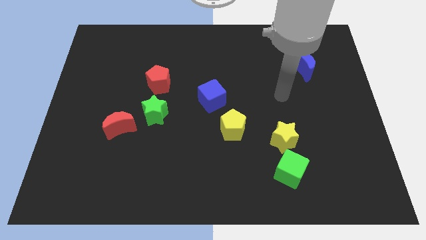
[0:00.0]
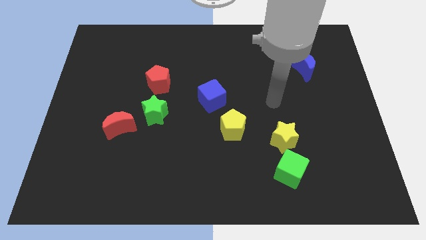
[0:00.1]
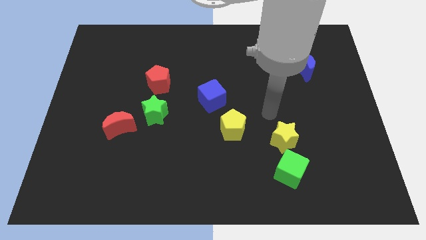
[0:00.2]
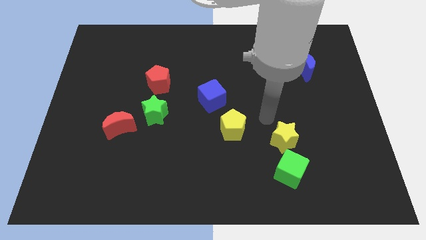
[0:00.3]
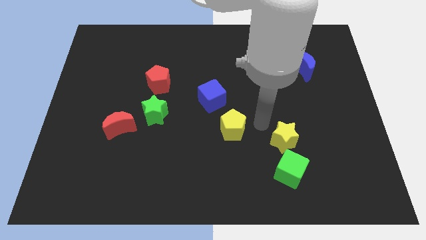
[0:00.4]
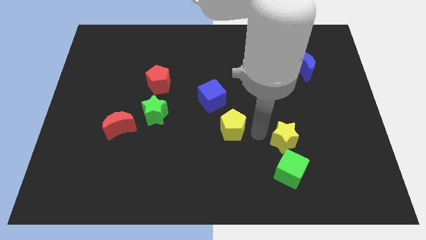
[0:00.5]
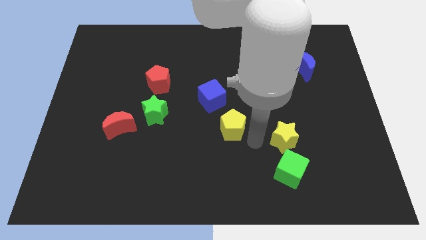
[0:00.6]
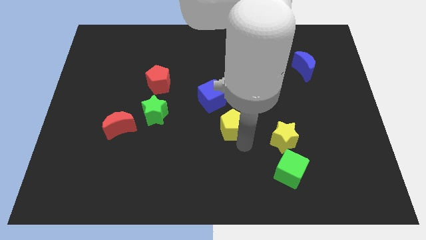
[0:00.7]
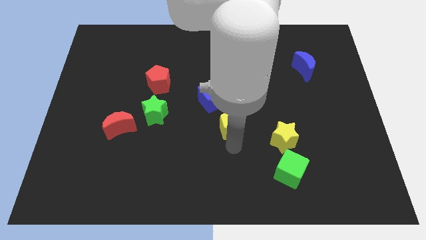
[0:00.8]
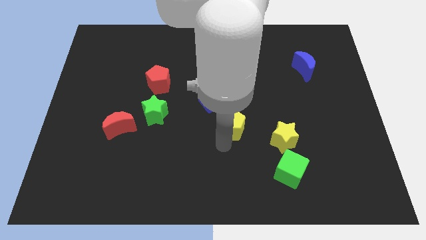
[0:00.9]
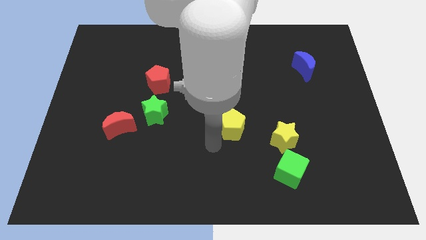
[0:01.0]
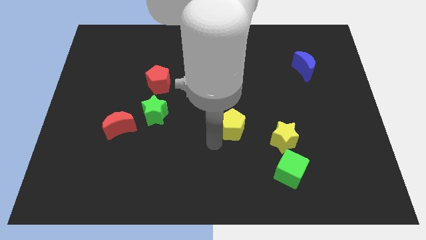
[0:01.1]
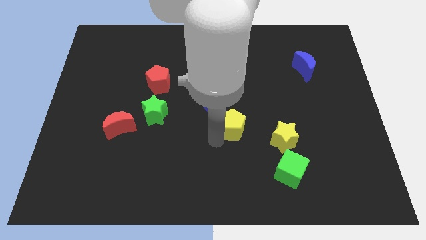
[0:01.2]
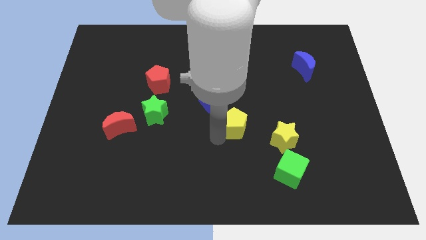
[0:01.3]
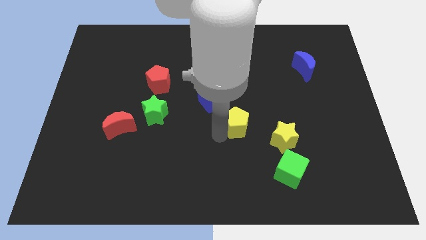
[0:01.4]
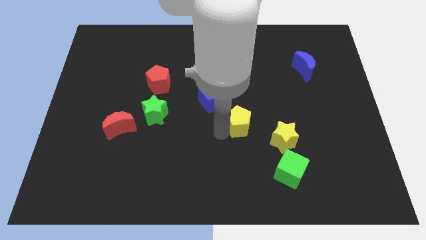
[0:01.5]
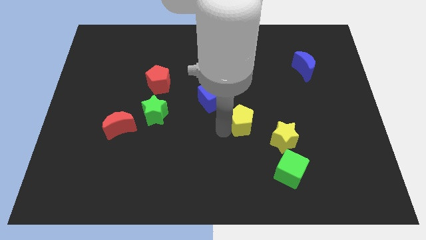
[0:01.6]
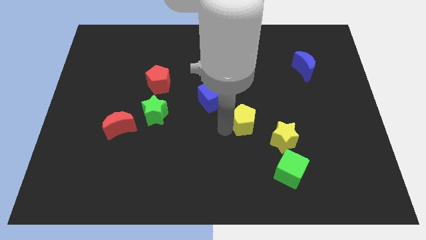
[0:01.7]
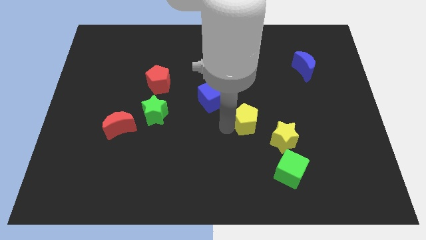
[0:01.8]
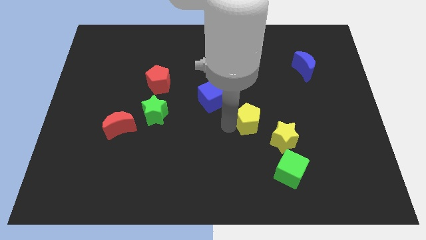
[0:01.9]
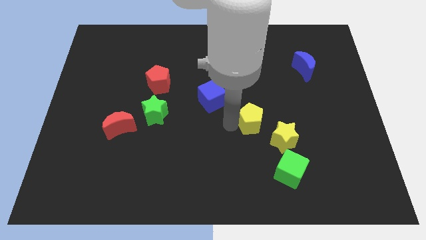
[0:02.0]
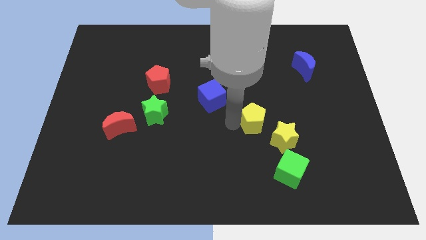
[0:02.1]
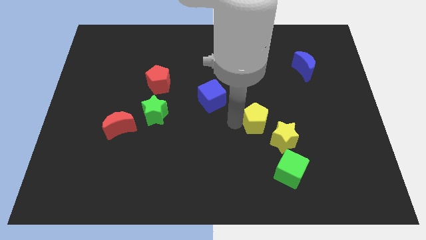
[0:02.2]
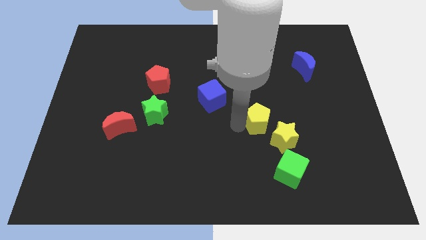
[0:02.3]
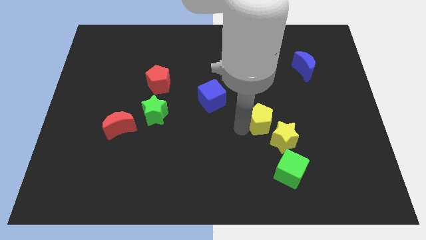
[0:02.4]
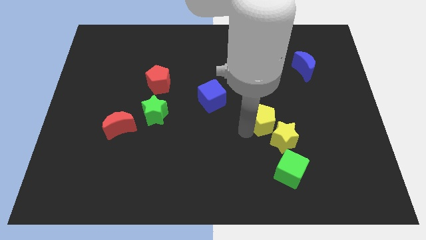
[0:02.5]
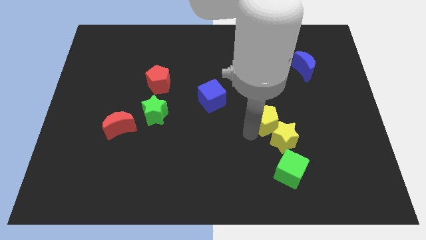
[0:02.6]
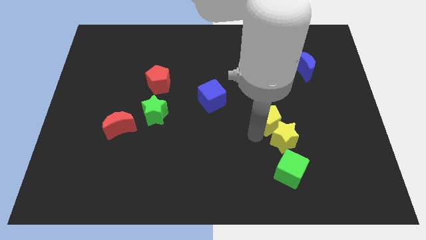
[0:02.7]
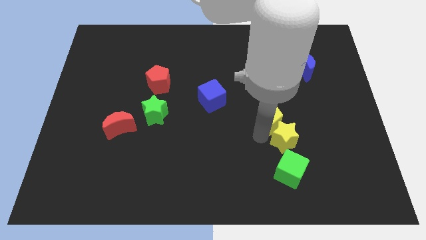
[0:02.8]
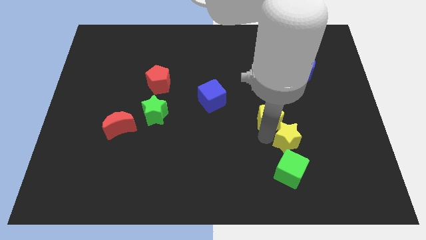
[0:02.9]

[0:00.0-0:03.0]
push the yellow pentagon diagonally up and right somewhat

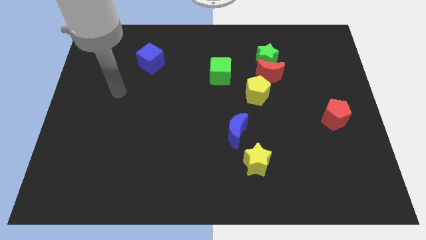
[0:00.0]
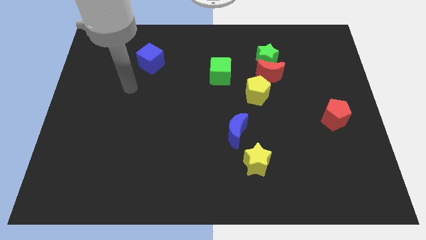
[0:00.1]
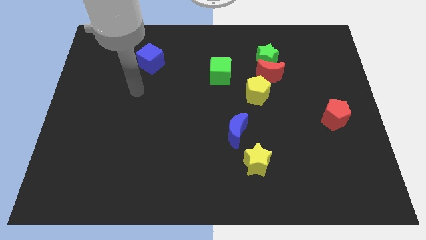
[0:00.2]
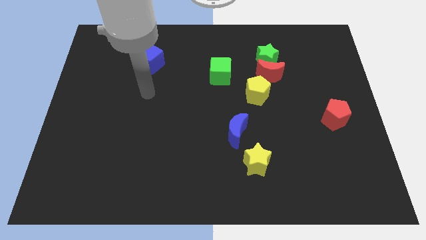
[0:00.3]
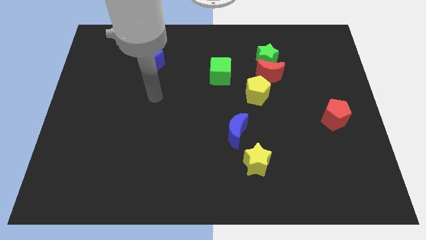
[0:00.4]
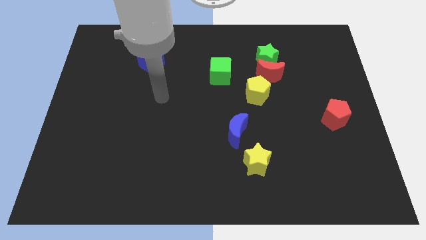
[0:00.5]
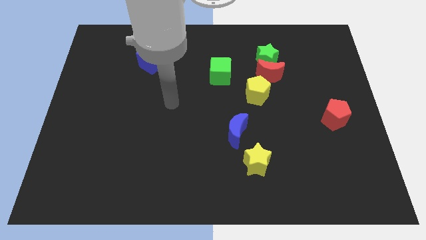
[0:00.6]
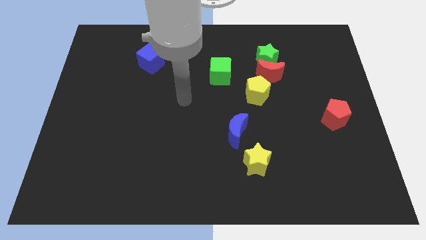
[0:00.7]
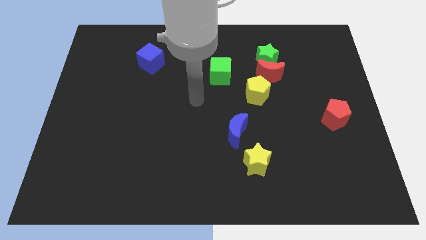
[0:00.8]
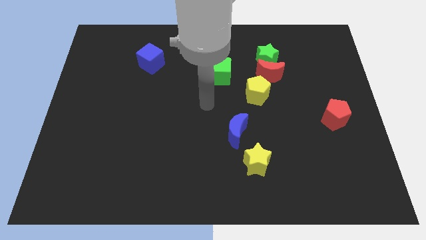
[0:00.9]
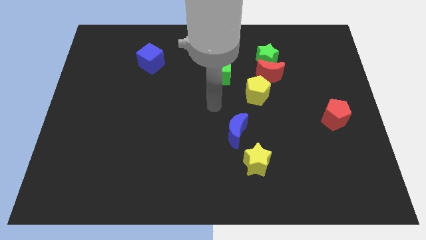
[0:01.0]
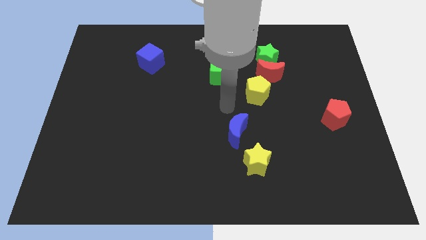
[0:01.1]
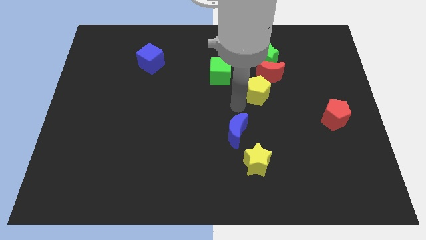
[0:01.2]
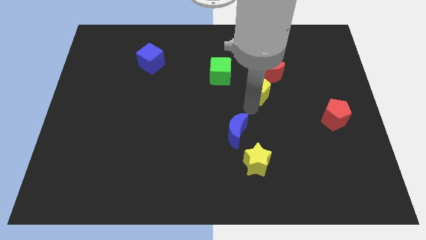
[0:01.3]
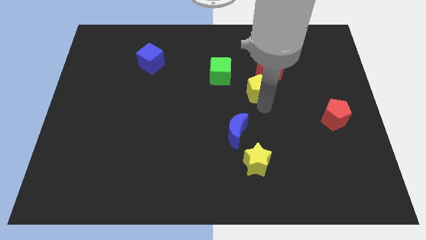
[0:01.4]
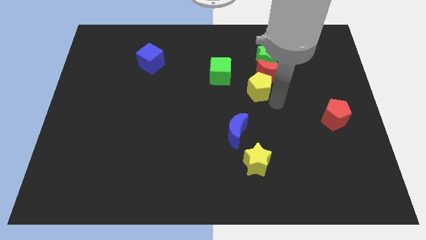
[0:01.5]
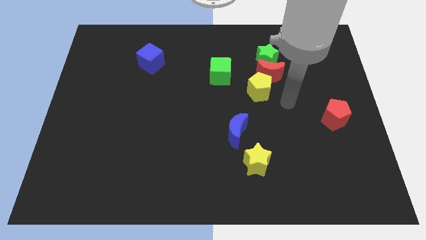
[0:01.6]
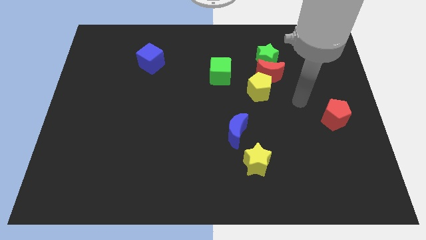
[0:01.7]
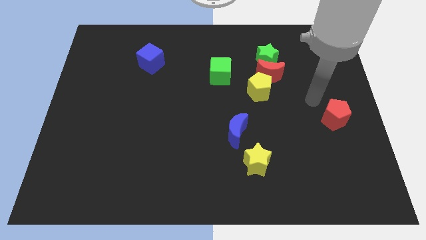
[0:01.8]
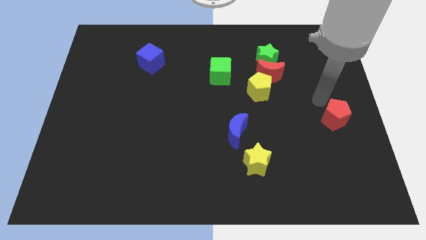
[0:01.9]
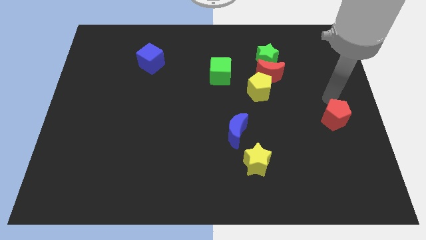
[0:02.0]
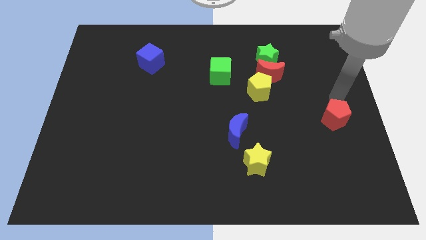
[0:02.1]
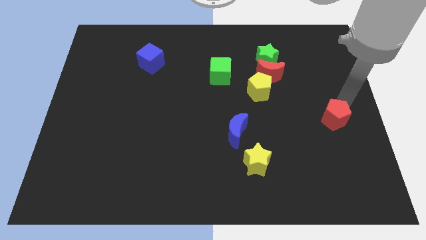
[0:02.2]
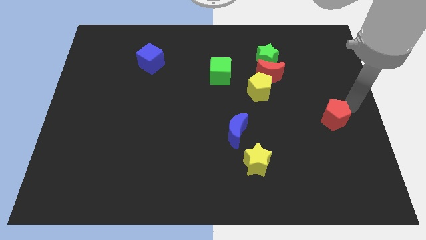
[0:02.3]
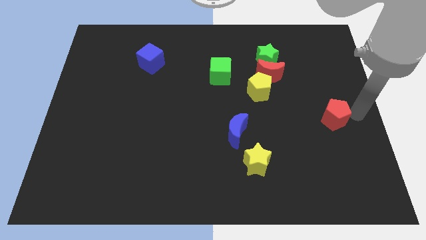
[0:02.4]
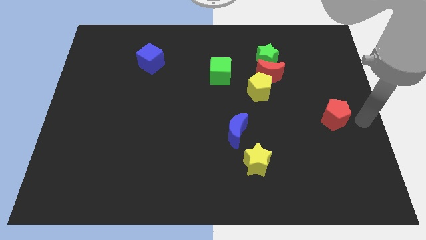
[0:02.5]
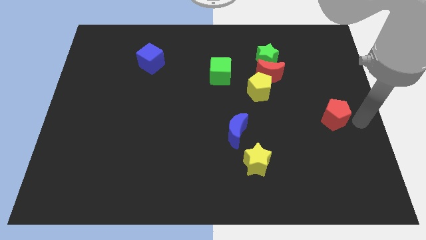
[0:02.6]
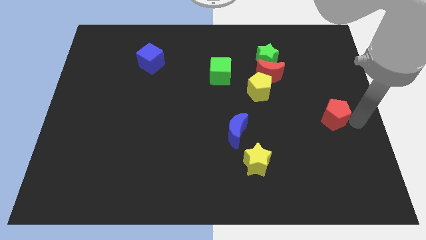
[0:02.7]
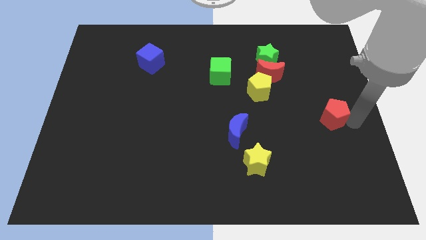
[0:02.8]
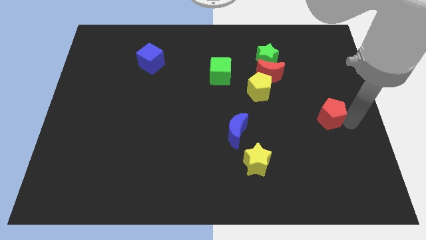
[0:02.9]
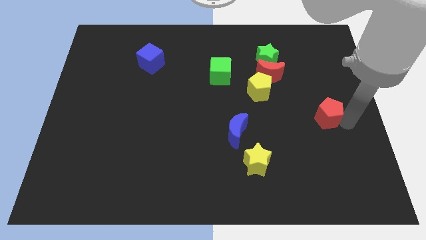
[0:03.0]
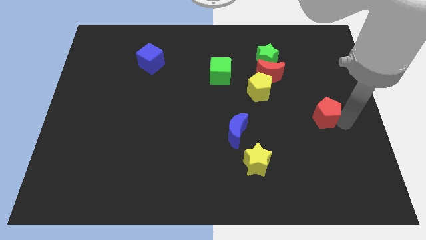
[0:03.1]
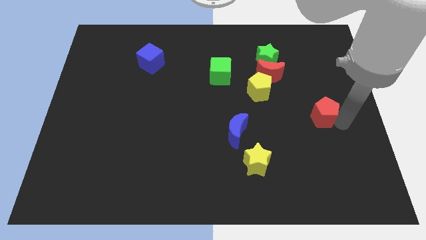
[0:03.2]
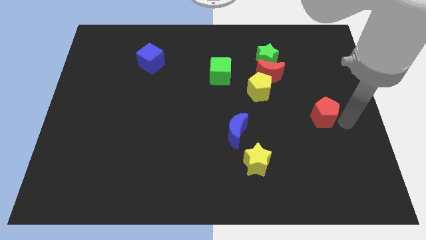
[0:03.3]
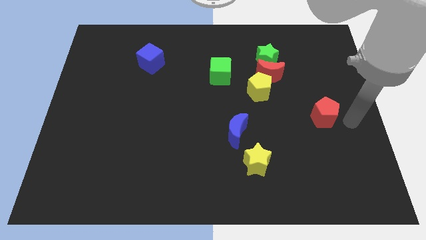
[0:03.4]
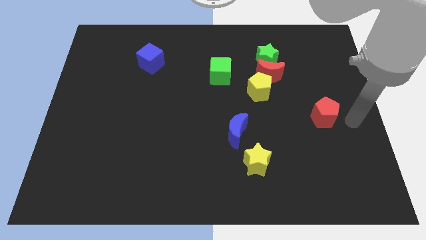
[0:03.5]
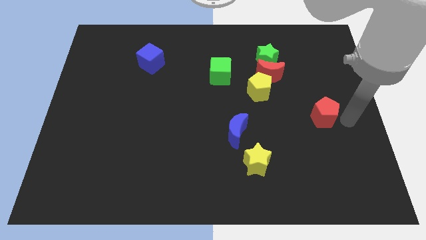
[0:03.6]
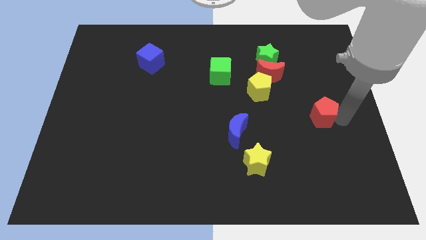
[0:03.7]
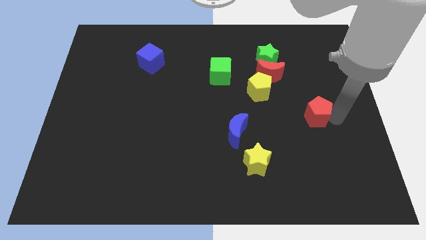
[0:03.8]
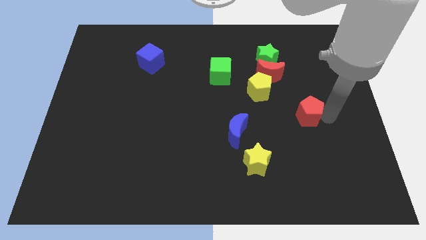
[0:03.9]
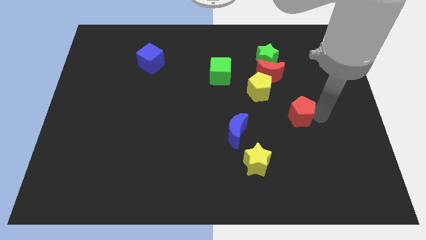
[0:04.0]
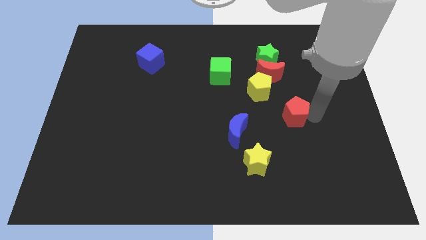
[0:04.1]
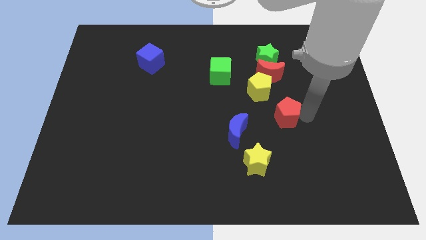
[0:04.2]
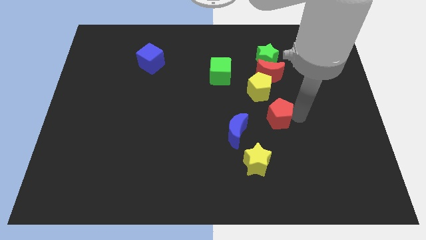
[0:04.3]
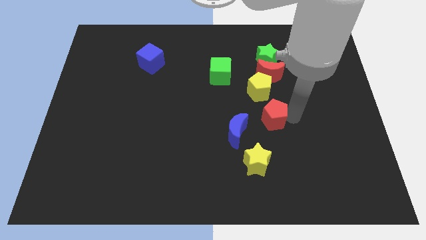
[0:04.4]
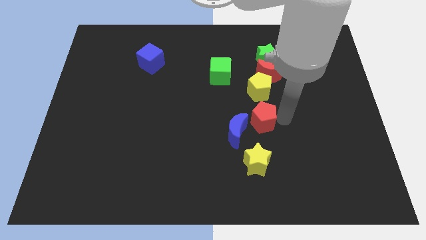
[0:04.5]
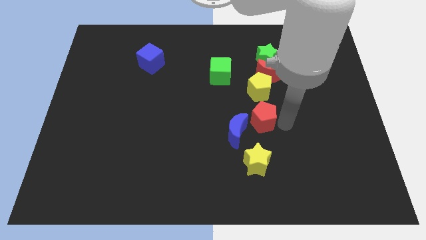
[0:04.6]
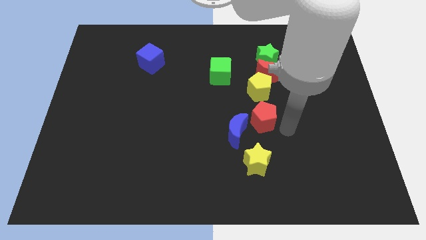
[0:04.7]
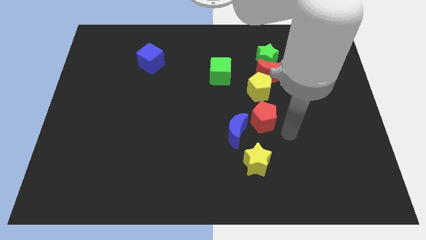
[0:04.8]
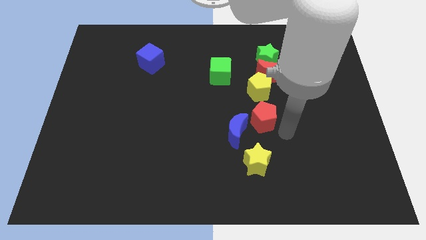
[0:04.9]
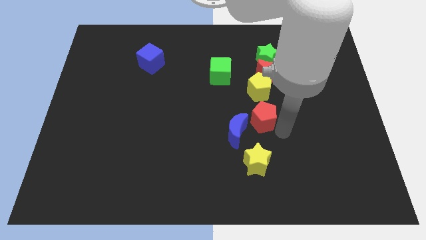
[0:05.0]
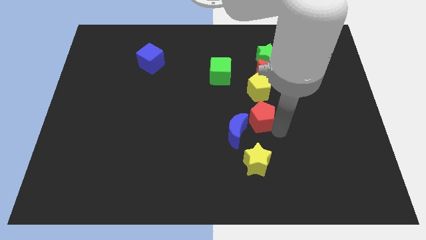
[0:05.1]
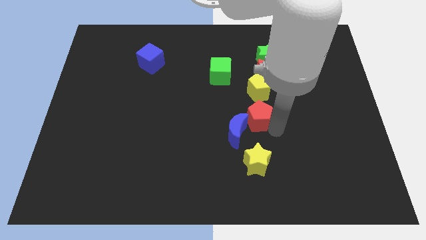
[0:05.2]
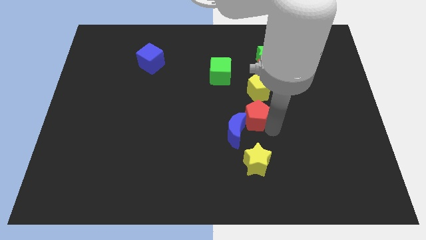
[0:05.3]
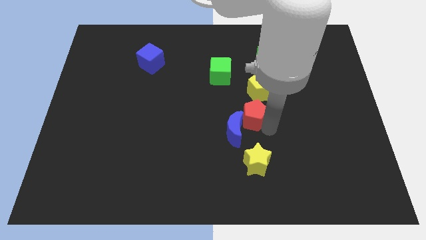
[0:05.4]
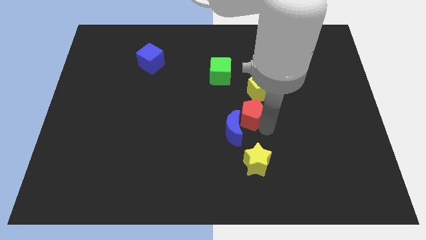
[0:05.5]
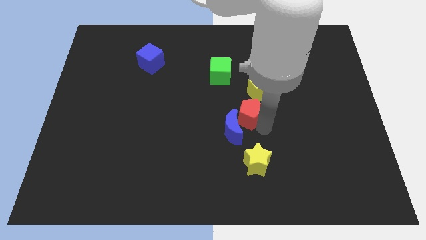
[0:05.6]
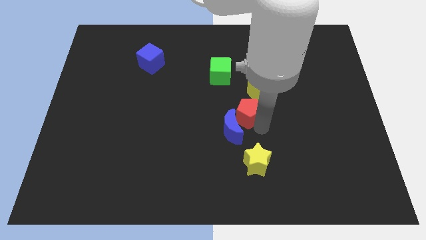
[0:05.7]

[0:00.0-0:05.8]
push the red pentagon to the left
